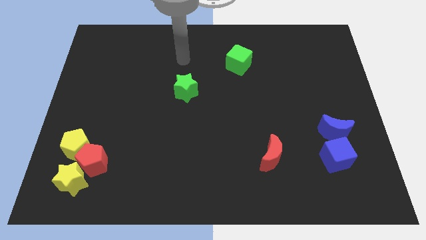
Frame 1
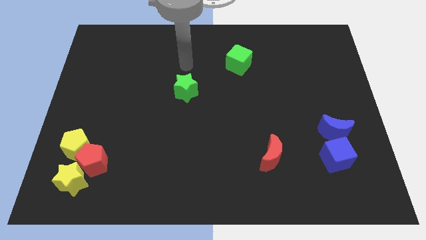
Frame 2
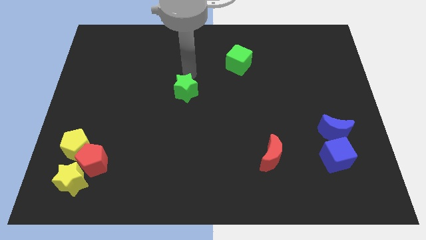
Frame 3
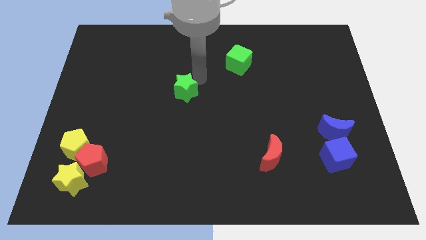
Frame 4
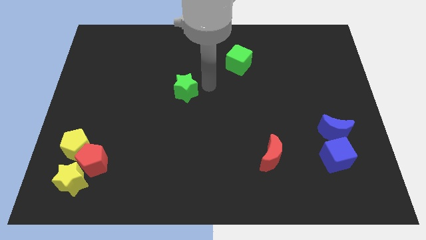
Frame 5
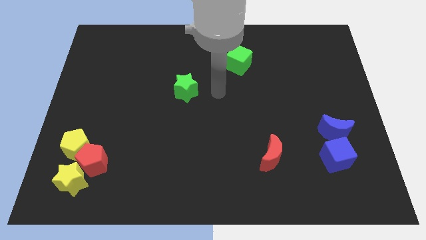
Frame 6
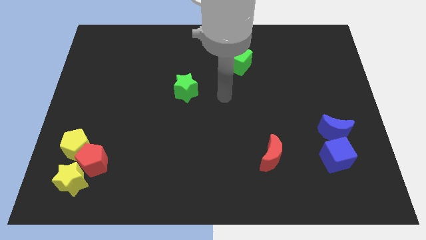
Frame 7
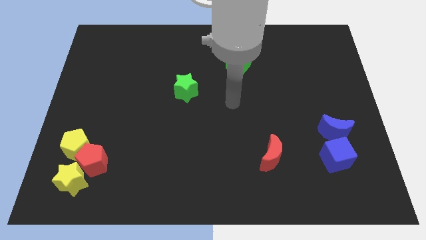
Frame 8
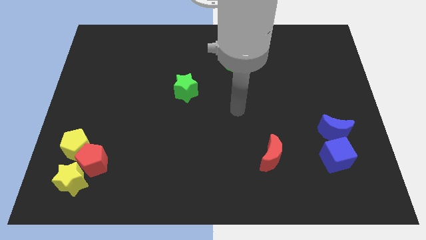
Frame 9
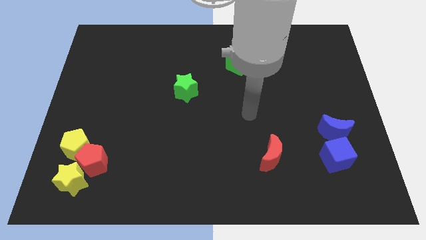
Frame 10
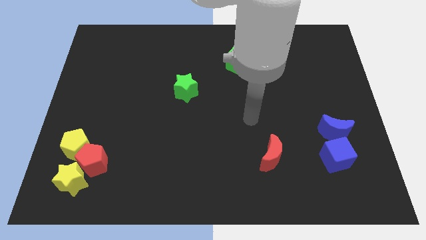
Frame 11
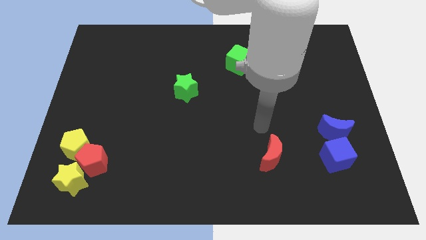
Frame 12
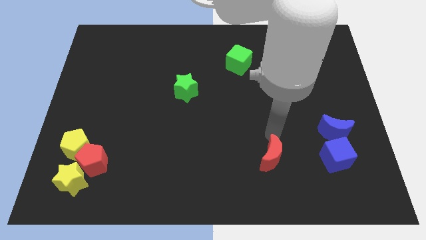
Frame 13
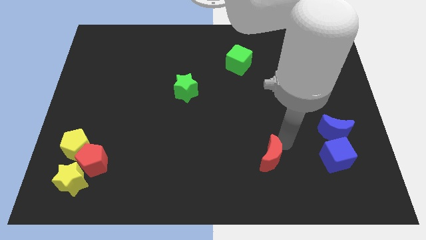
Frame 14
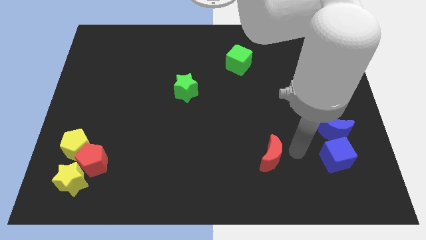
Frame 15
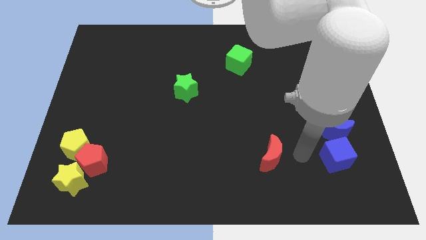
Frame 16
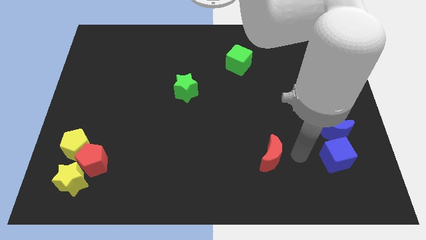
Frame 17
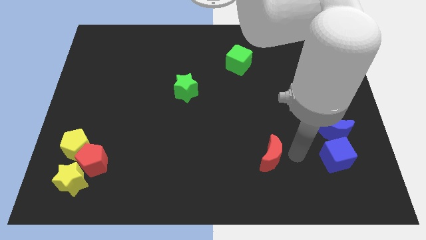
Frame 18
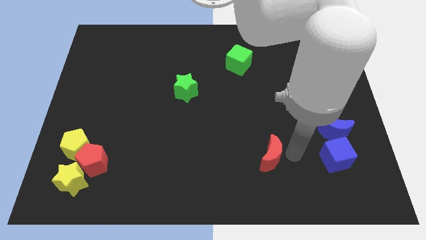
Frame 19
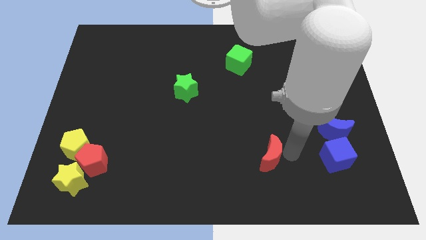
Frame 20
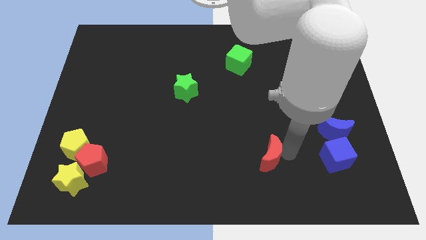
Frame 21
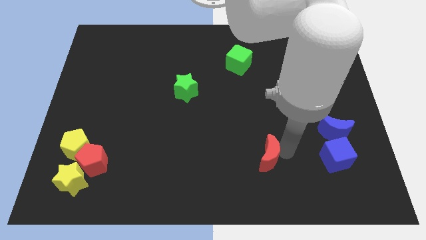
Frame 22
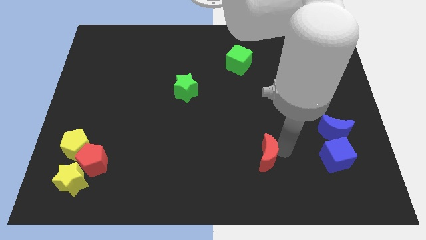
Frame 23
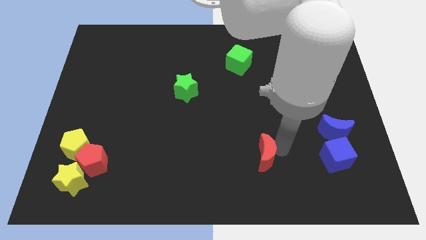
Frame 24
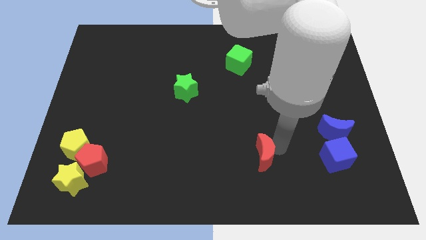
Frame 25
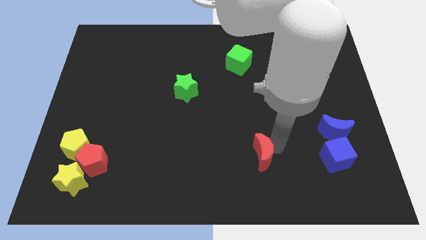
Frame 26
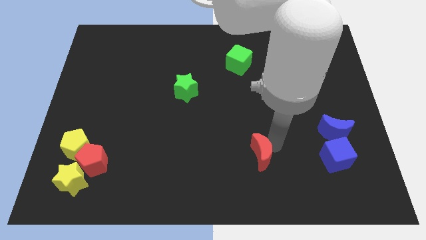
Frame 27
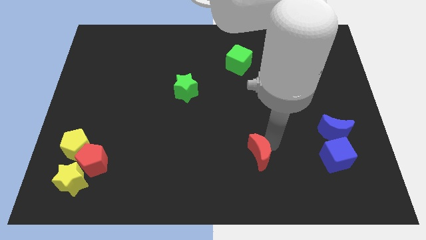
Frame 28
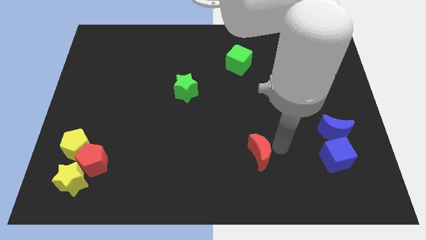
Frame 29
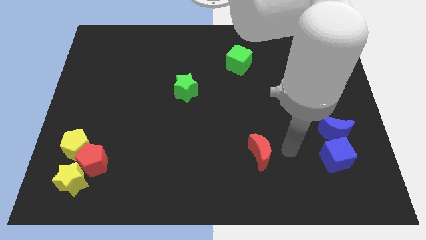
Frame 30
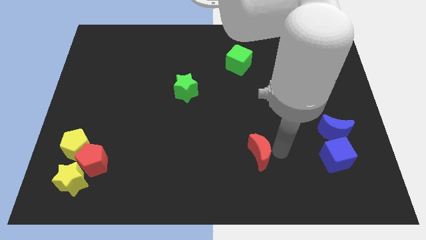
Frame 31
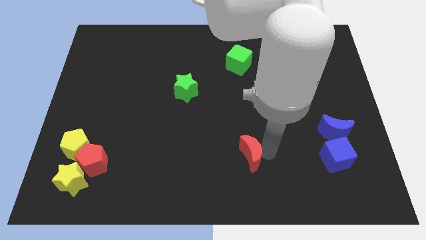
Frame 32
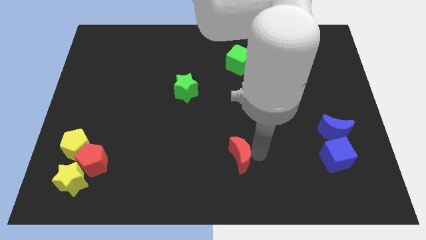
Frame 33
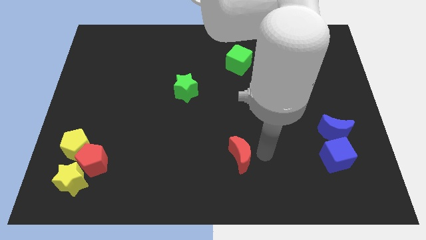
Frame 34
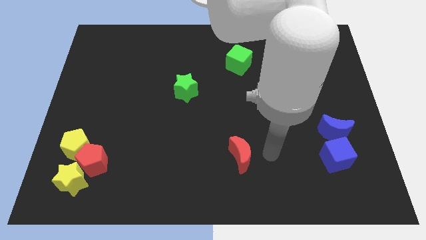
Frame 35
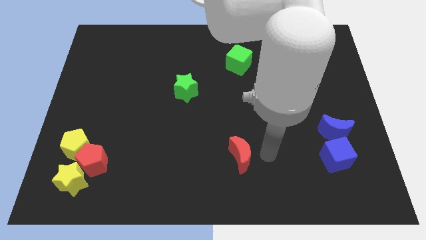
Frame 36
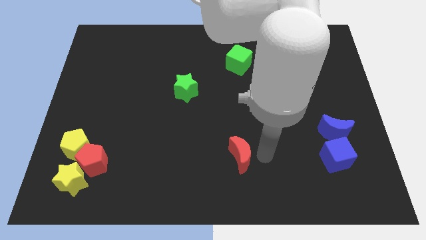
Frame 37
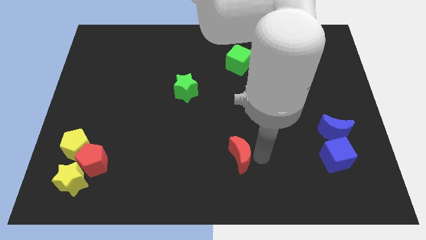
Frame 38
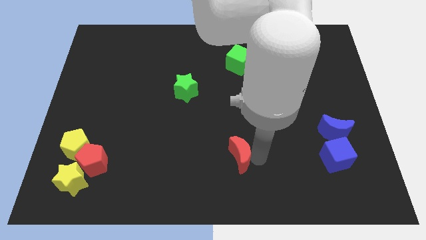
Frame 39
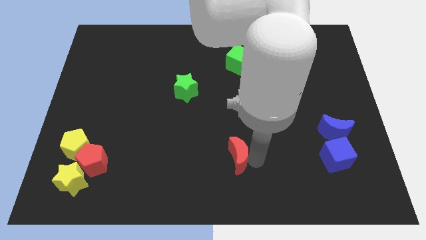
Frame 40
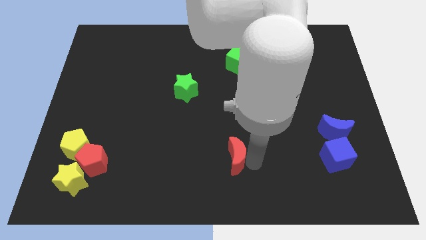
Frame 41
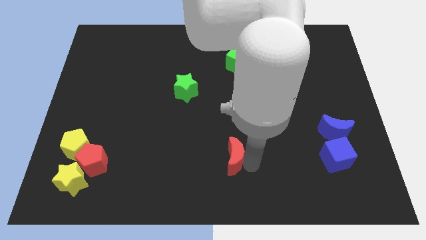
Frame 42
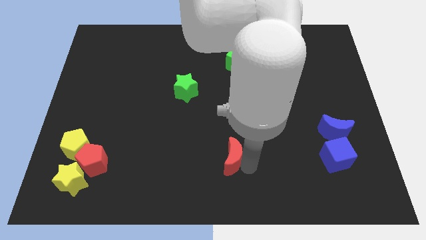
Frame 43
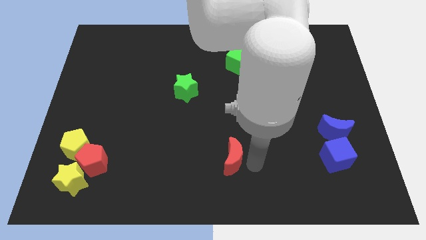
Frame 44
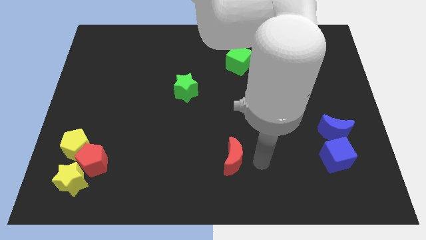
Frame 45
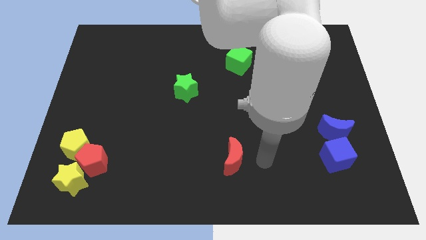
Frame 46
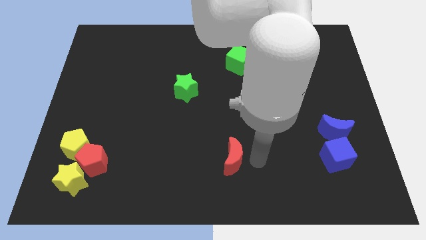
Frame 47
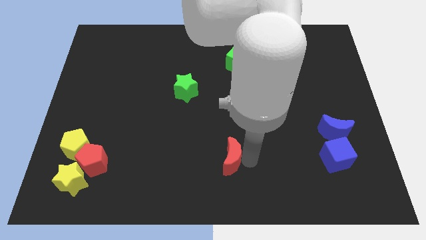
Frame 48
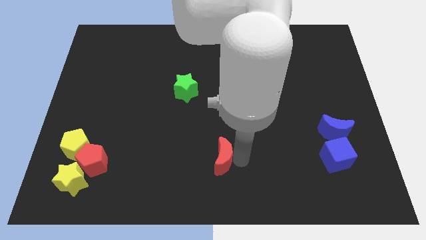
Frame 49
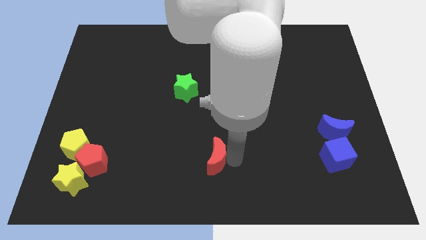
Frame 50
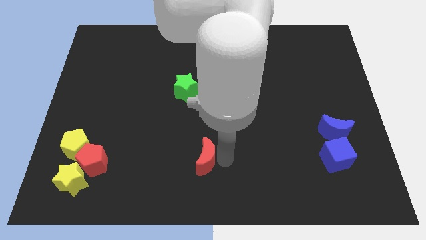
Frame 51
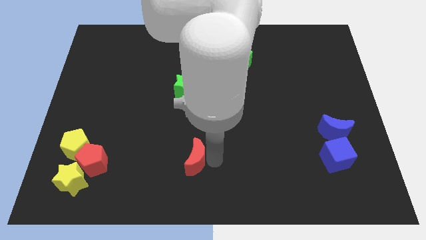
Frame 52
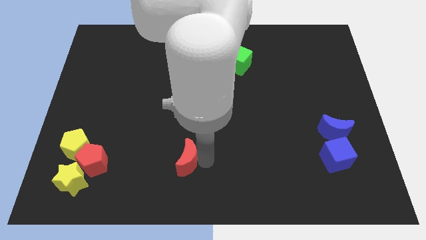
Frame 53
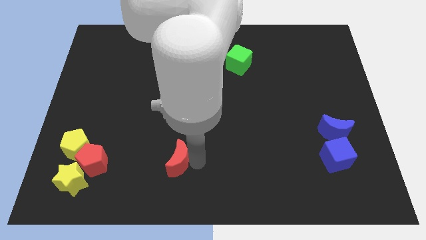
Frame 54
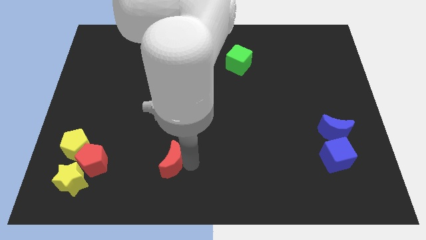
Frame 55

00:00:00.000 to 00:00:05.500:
move the red moon left

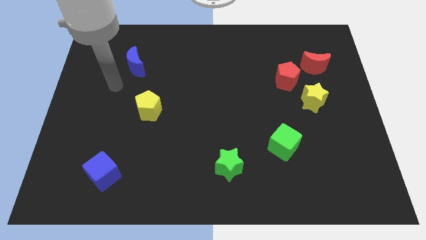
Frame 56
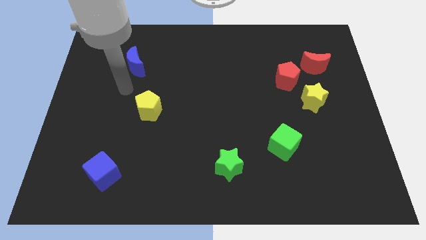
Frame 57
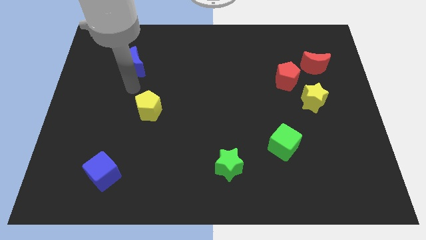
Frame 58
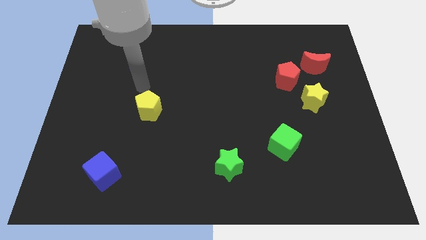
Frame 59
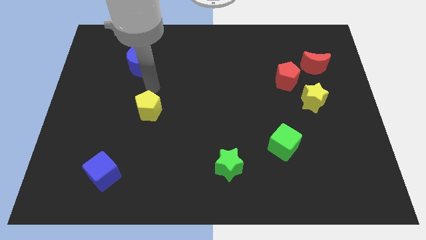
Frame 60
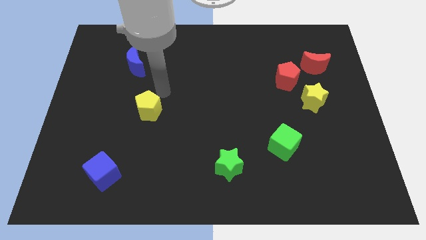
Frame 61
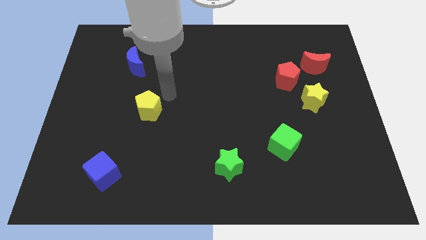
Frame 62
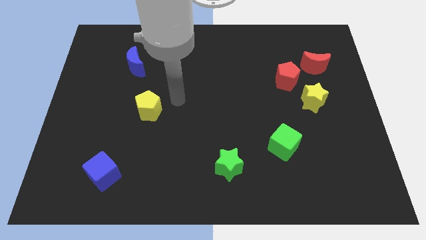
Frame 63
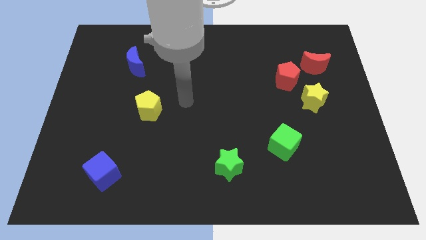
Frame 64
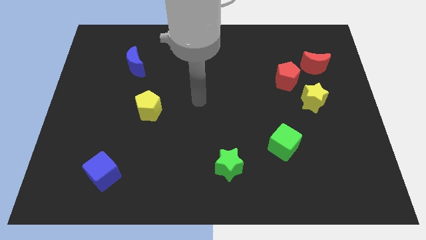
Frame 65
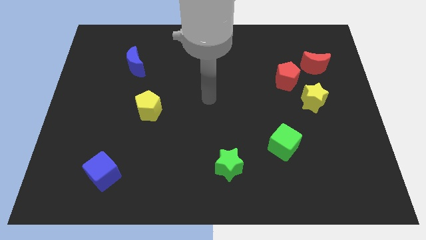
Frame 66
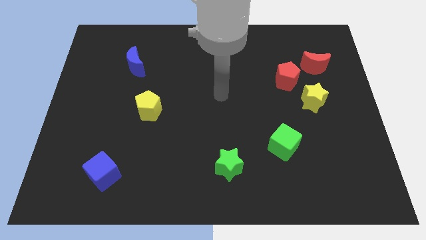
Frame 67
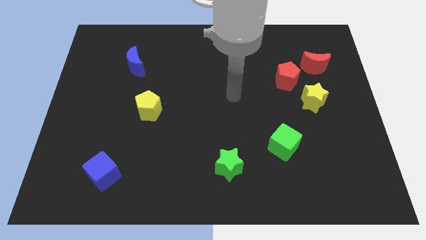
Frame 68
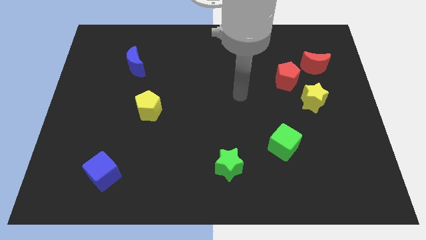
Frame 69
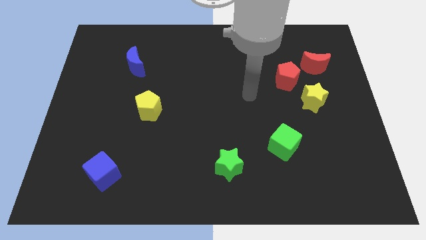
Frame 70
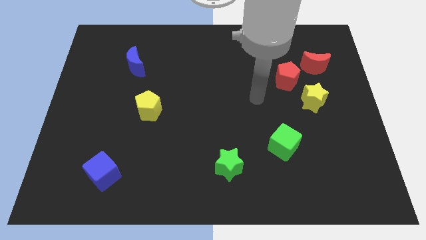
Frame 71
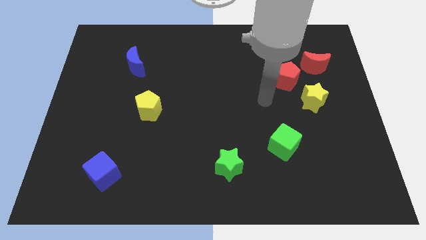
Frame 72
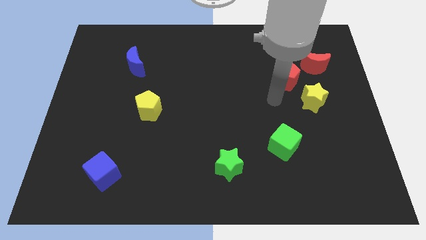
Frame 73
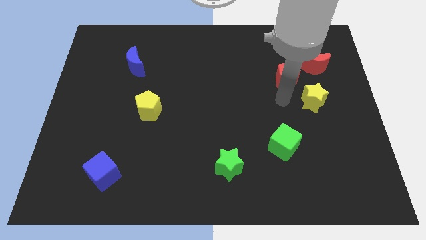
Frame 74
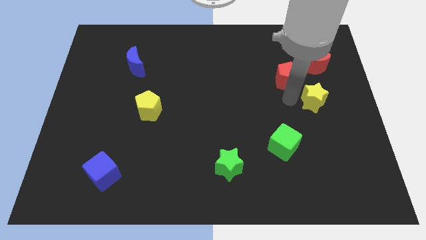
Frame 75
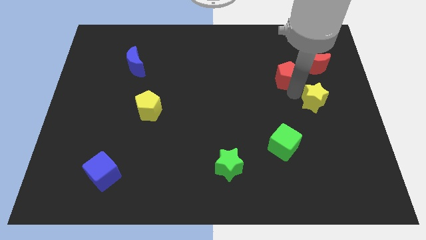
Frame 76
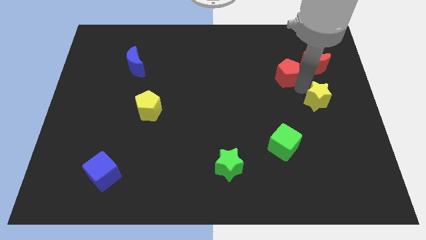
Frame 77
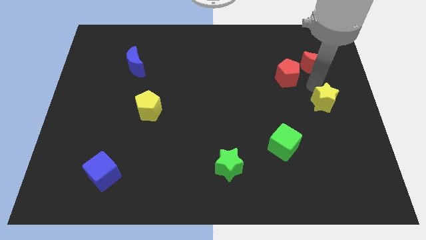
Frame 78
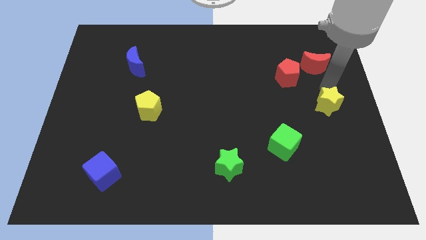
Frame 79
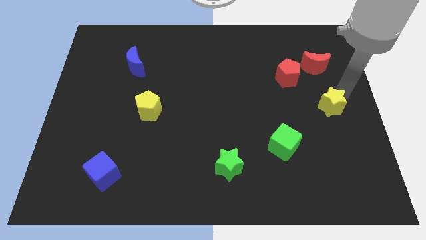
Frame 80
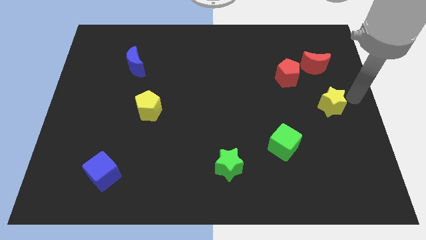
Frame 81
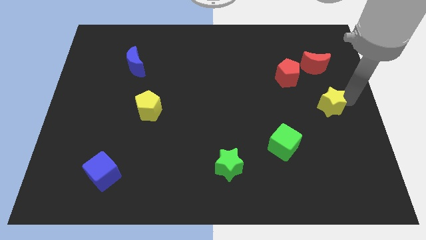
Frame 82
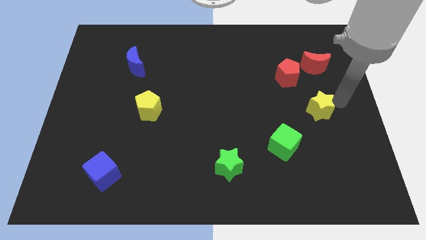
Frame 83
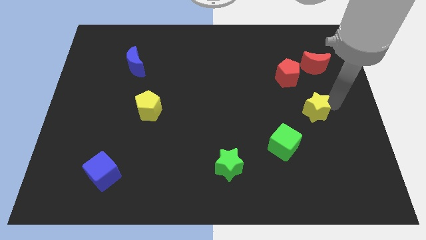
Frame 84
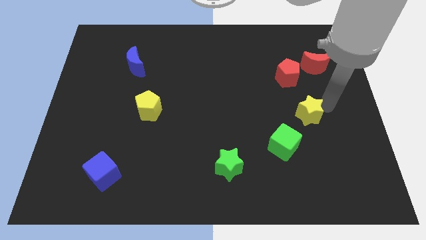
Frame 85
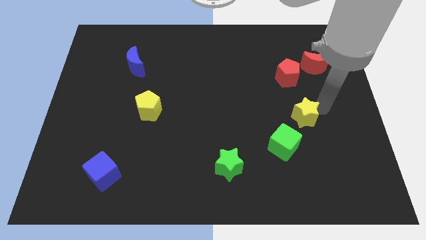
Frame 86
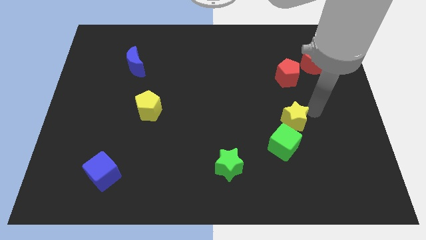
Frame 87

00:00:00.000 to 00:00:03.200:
move the yellow star down and to the left a bit
